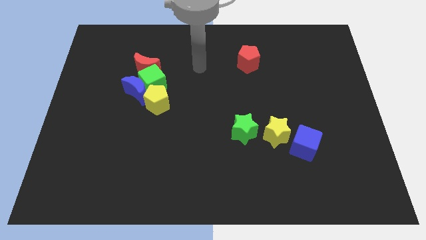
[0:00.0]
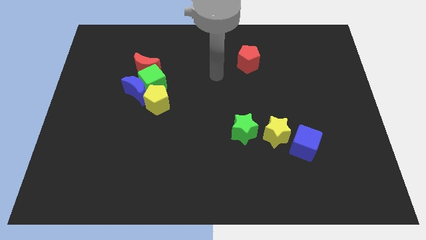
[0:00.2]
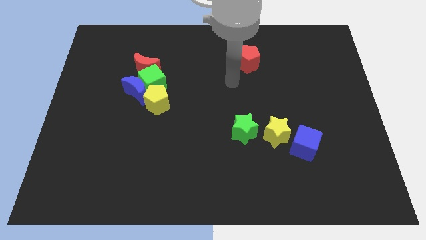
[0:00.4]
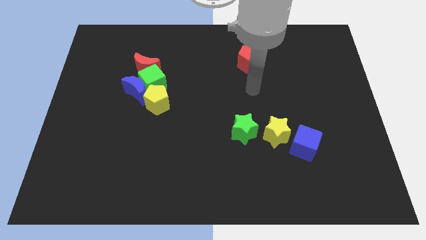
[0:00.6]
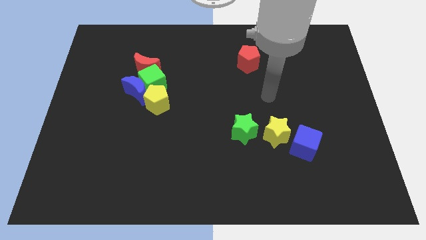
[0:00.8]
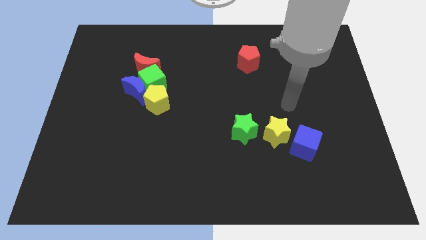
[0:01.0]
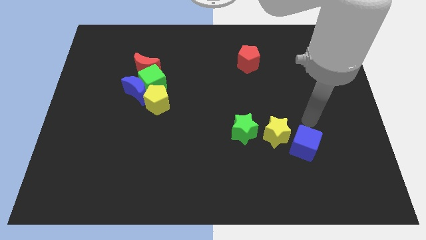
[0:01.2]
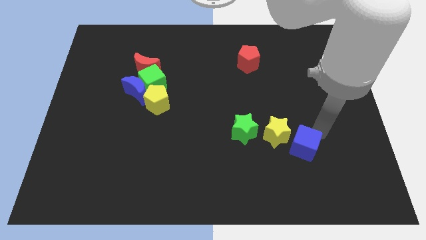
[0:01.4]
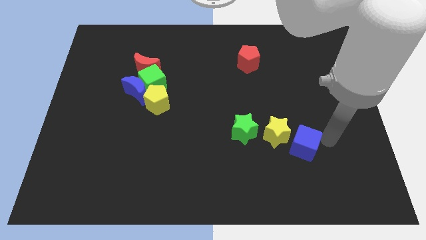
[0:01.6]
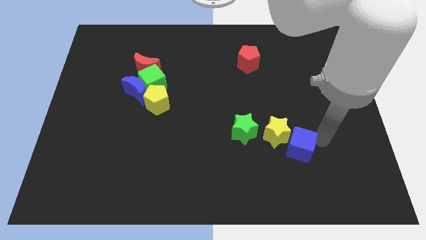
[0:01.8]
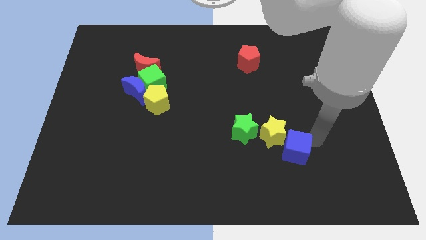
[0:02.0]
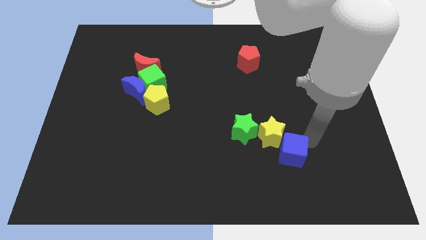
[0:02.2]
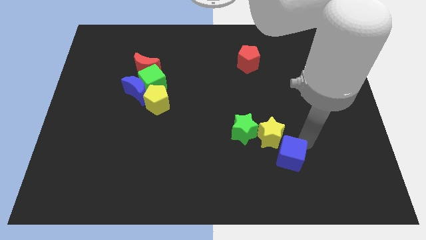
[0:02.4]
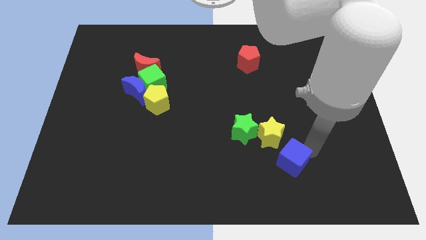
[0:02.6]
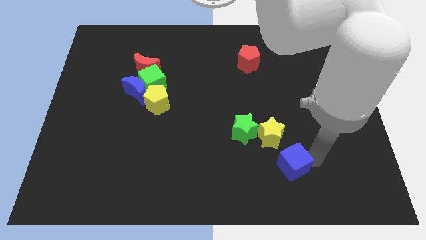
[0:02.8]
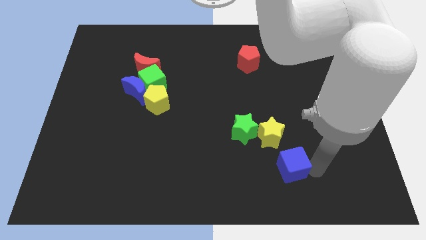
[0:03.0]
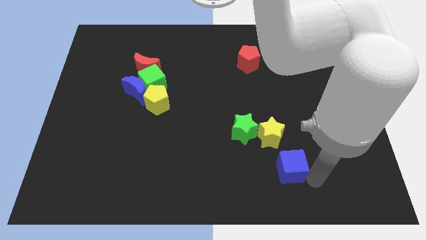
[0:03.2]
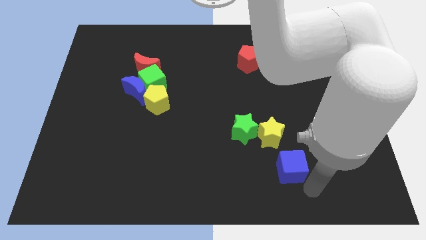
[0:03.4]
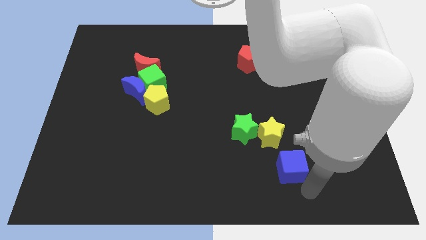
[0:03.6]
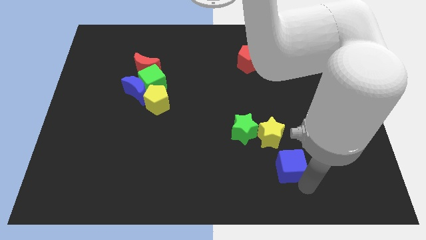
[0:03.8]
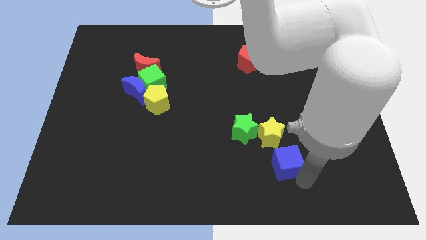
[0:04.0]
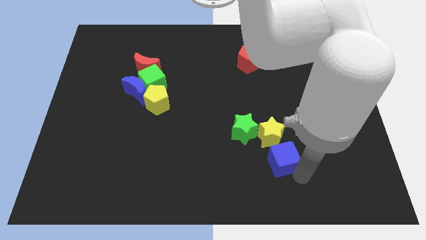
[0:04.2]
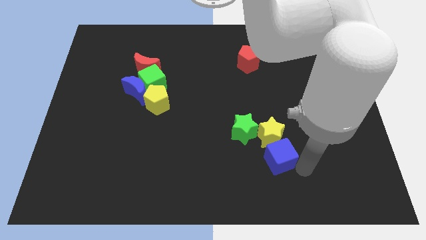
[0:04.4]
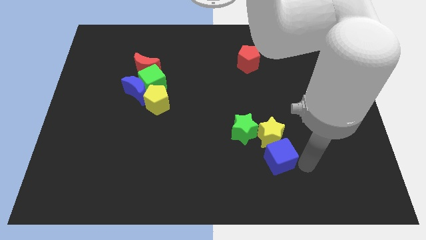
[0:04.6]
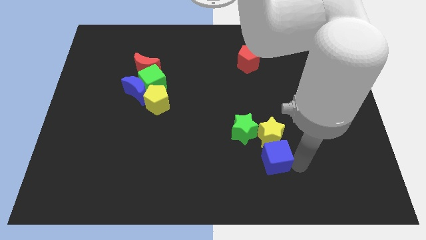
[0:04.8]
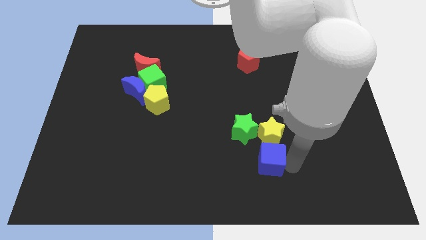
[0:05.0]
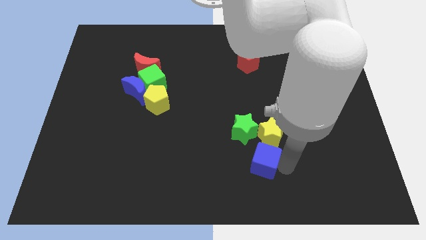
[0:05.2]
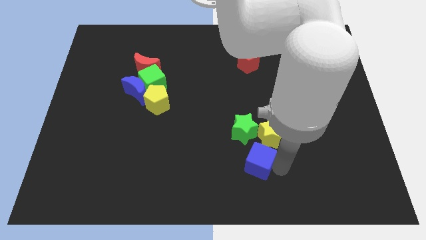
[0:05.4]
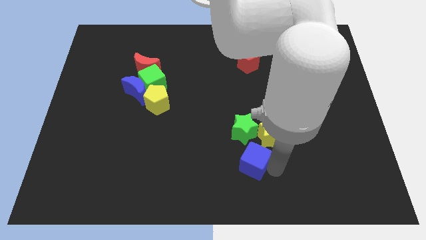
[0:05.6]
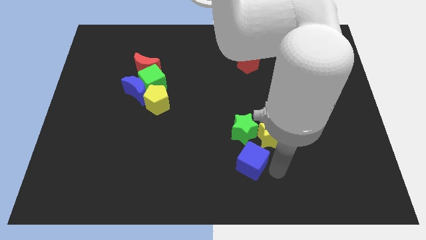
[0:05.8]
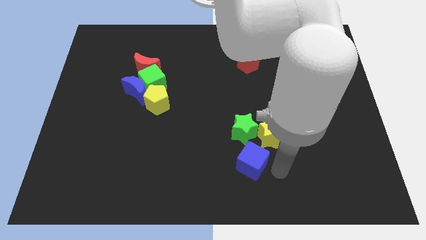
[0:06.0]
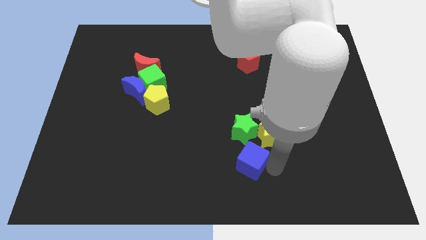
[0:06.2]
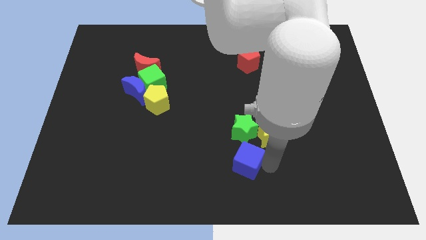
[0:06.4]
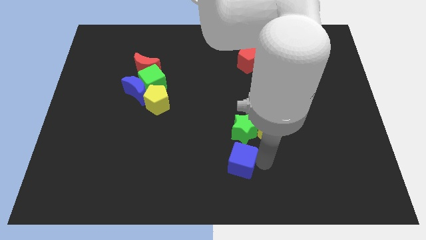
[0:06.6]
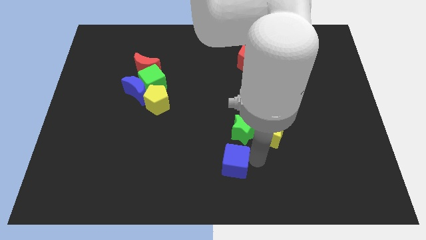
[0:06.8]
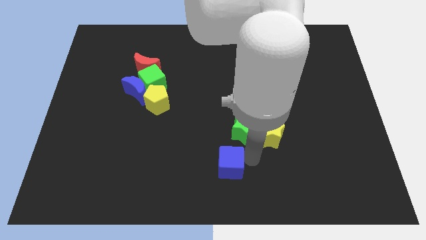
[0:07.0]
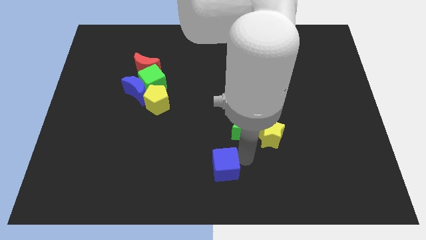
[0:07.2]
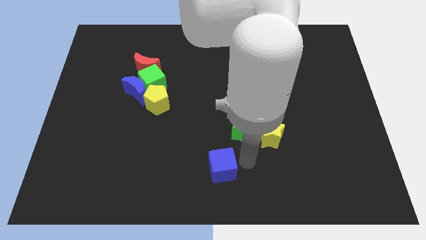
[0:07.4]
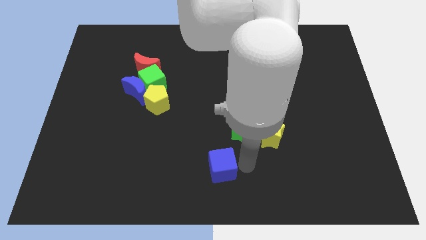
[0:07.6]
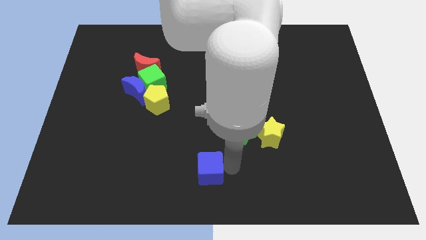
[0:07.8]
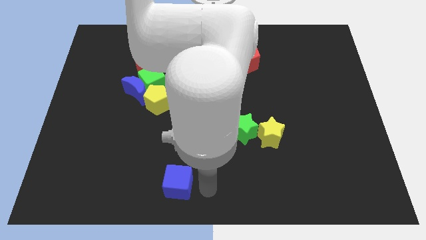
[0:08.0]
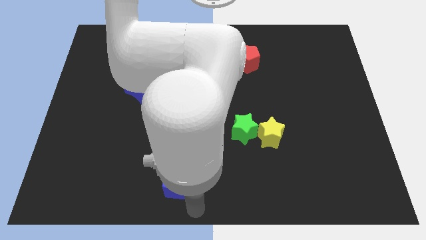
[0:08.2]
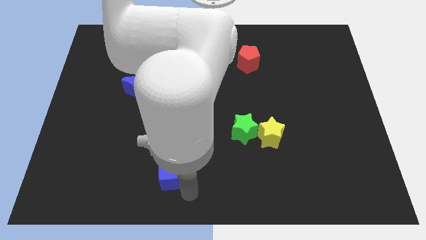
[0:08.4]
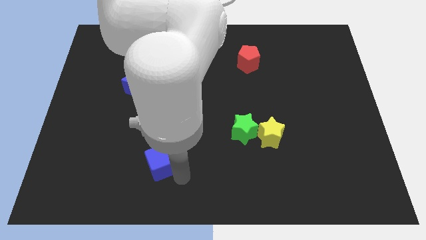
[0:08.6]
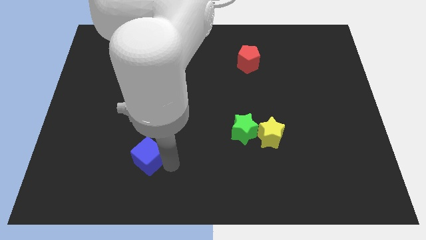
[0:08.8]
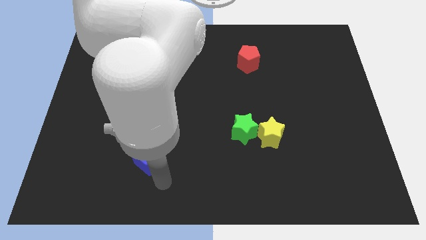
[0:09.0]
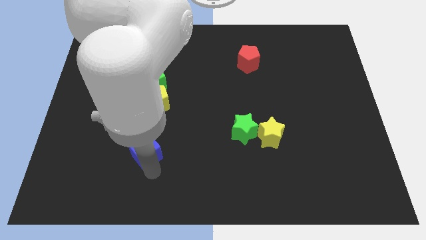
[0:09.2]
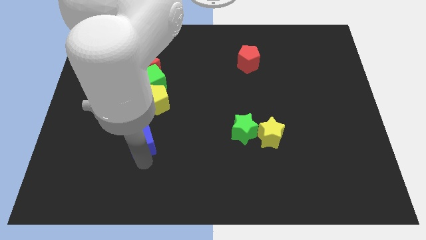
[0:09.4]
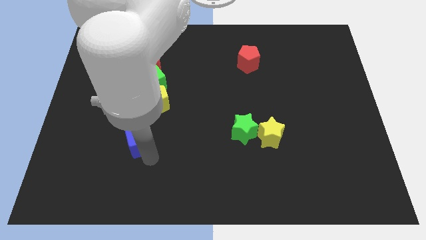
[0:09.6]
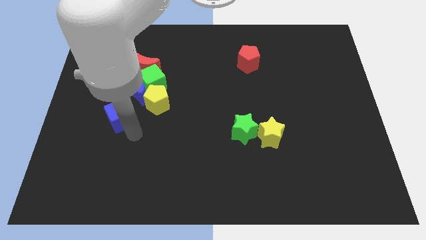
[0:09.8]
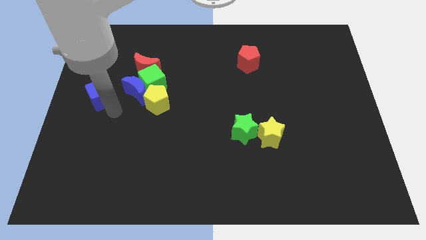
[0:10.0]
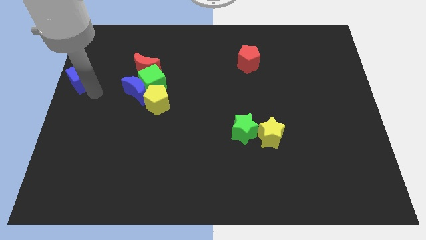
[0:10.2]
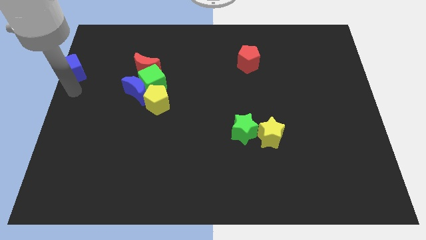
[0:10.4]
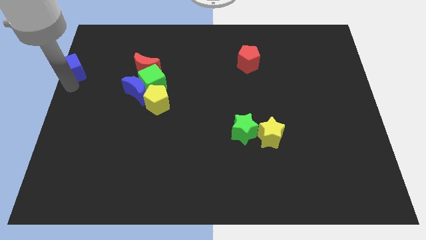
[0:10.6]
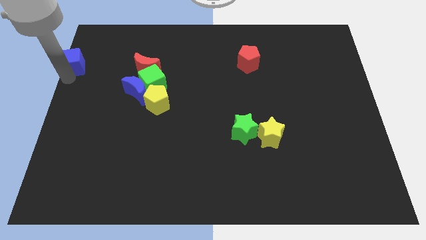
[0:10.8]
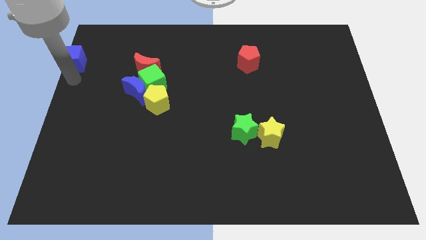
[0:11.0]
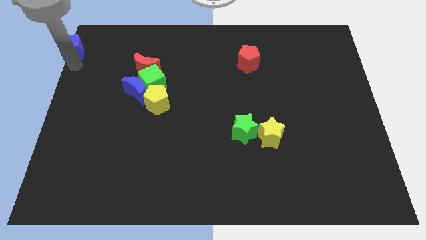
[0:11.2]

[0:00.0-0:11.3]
put the blue cube to the top left of the board

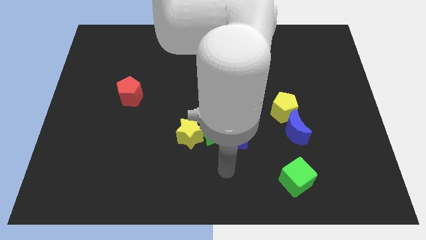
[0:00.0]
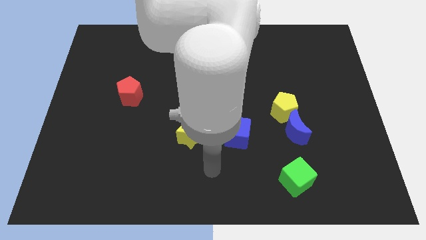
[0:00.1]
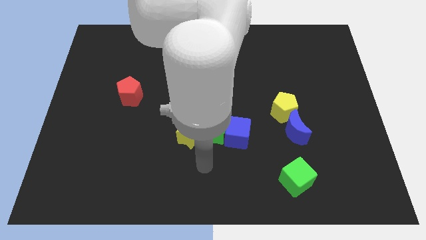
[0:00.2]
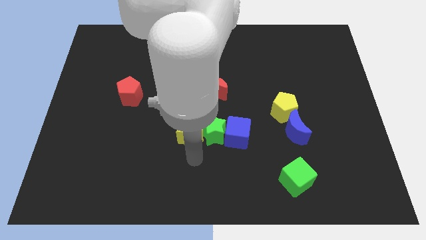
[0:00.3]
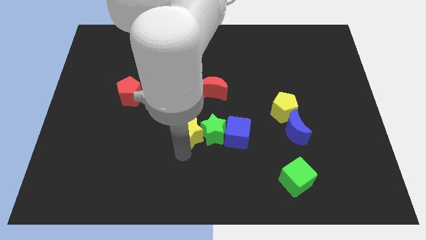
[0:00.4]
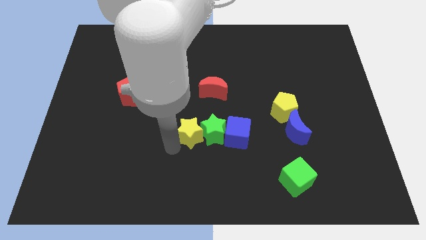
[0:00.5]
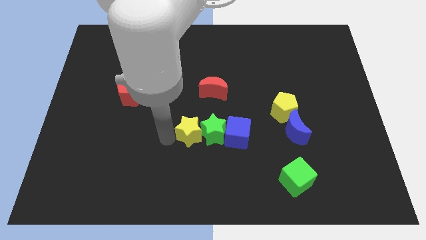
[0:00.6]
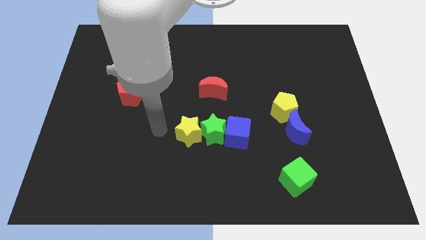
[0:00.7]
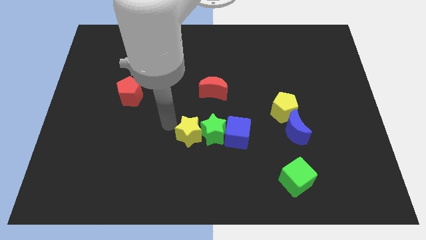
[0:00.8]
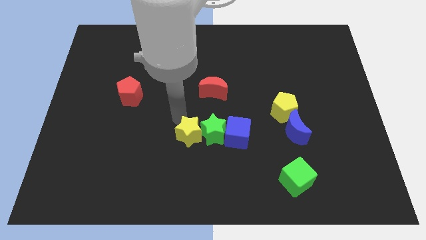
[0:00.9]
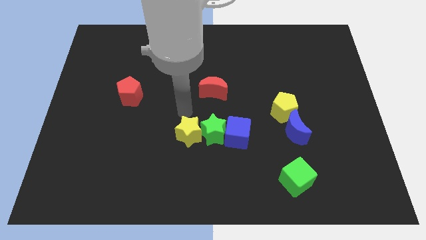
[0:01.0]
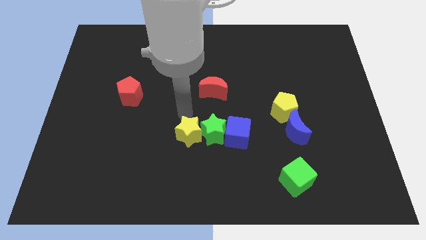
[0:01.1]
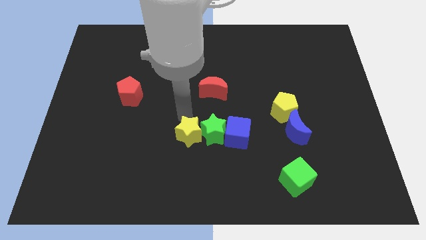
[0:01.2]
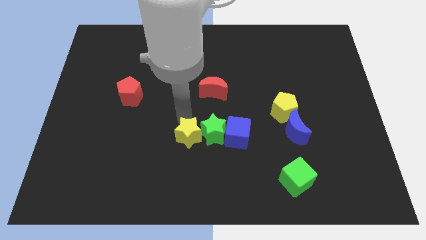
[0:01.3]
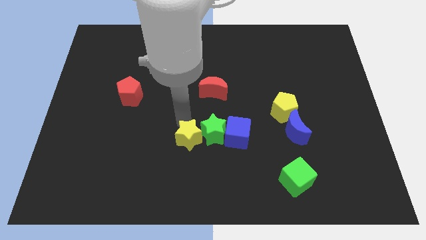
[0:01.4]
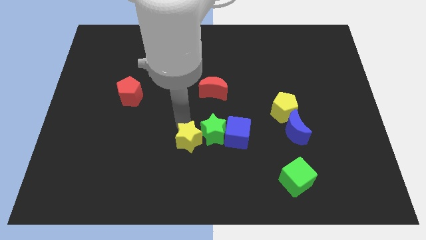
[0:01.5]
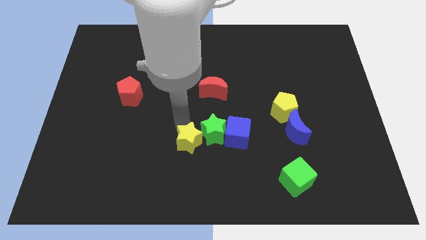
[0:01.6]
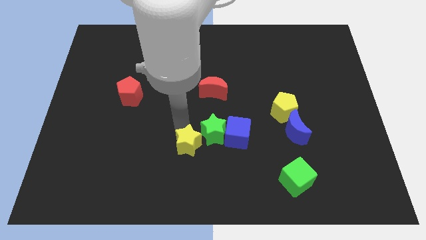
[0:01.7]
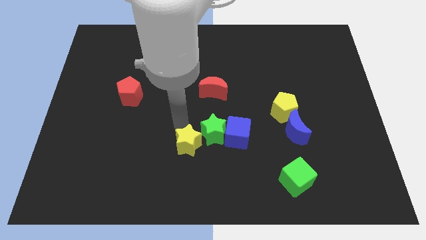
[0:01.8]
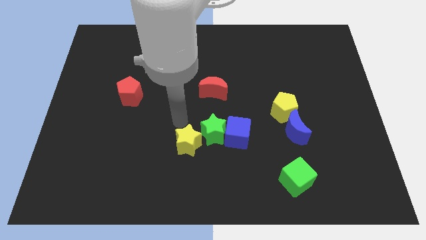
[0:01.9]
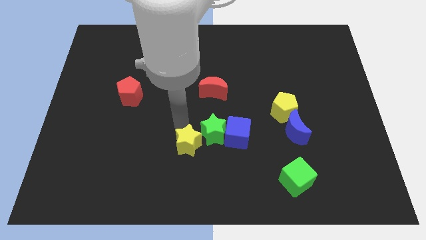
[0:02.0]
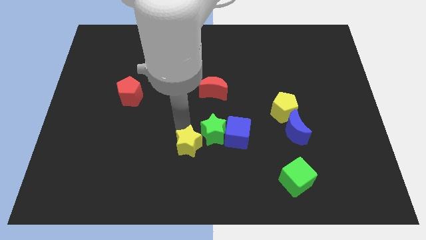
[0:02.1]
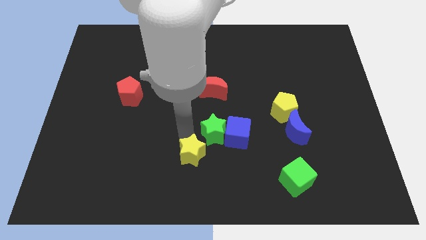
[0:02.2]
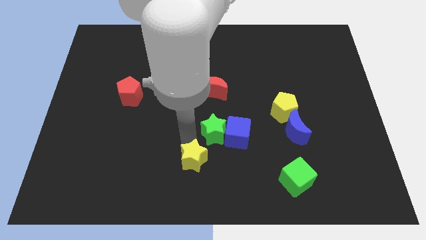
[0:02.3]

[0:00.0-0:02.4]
push the yellow star to the bottom side
